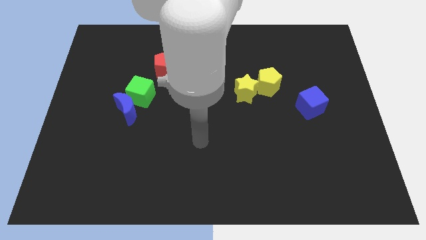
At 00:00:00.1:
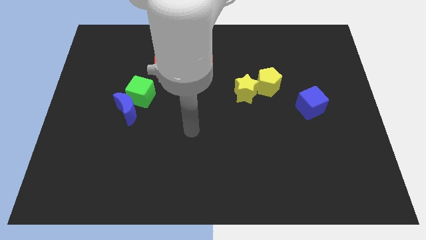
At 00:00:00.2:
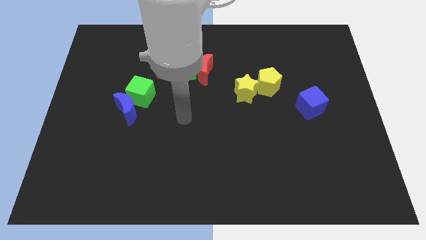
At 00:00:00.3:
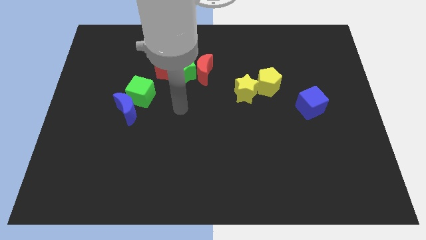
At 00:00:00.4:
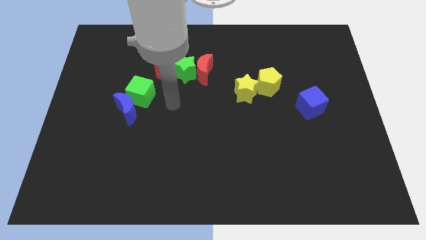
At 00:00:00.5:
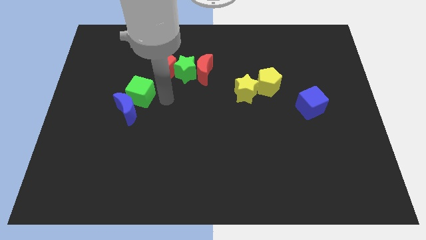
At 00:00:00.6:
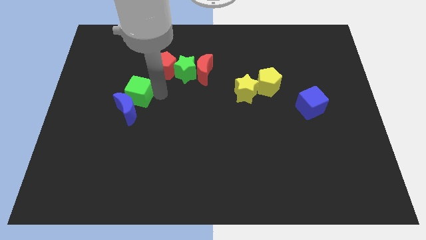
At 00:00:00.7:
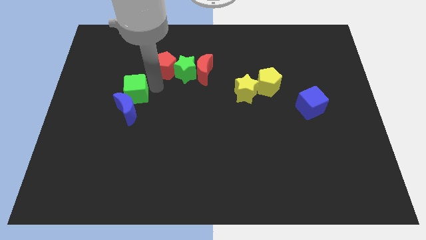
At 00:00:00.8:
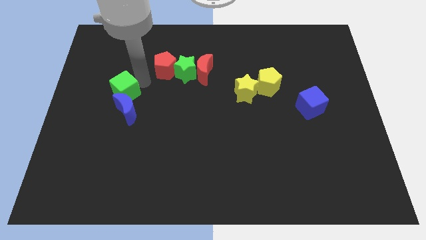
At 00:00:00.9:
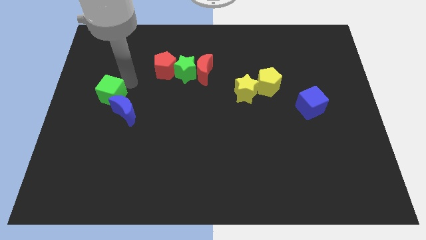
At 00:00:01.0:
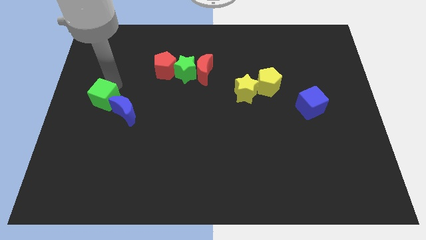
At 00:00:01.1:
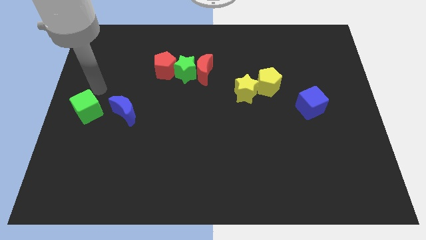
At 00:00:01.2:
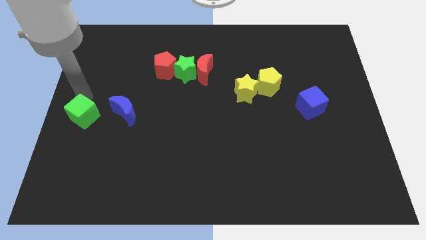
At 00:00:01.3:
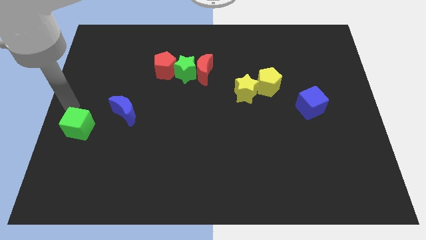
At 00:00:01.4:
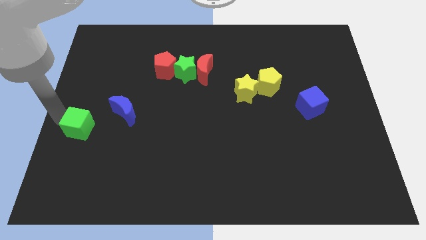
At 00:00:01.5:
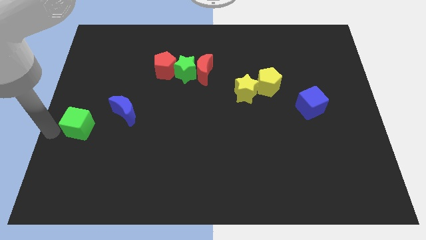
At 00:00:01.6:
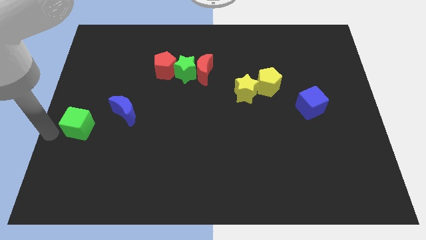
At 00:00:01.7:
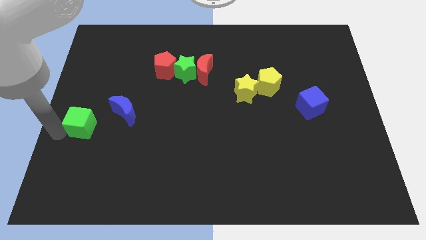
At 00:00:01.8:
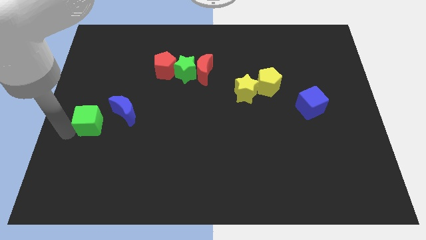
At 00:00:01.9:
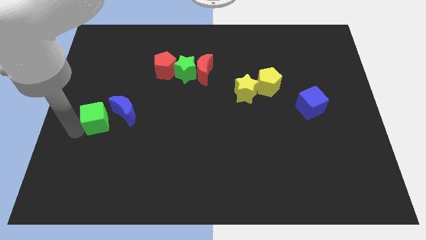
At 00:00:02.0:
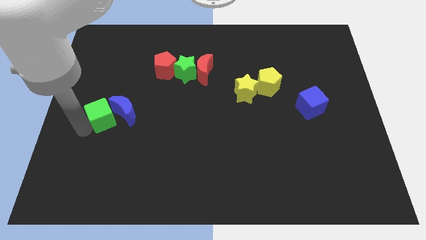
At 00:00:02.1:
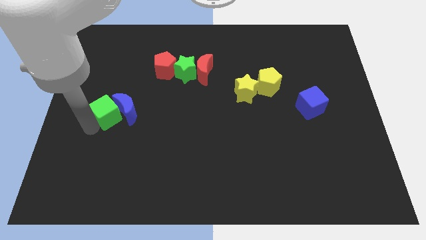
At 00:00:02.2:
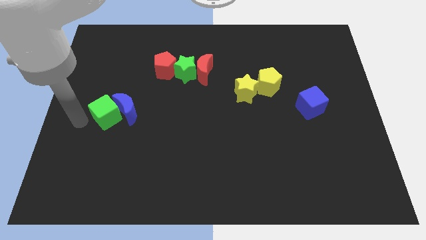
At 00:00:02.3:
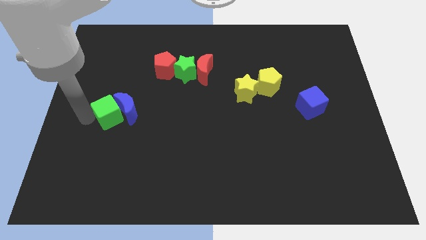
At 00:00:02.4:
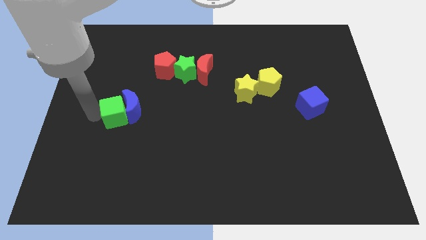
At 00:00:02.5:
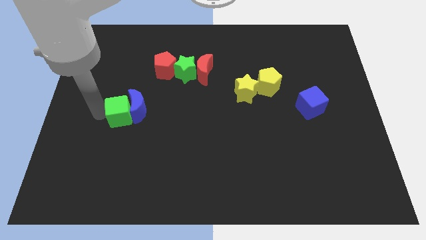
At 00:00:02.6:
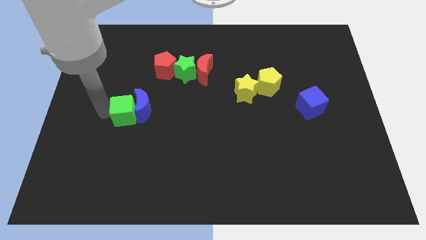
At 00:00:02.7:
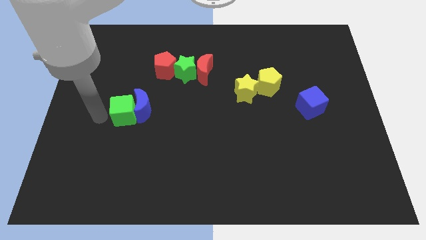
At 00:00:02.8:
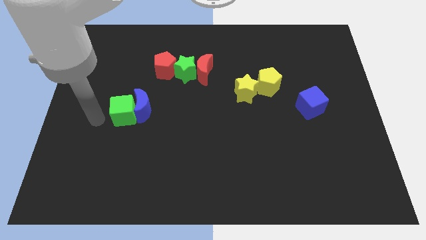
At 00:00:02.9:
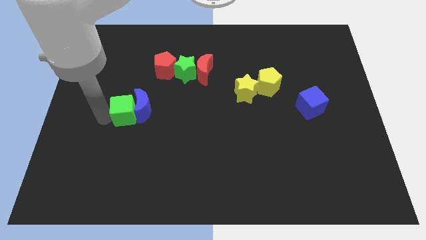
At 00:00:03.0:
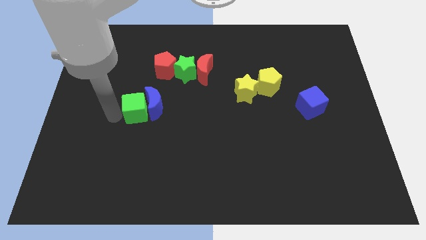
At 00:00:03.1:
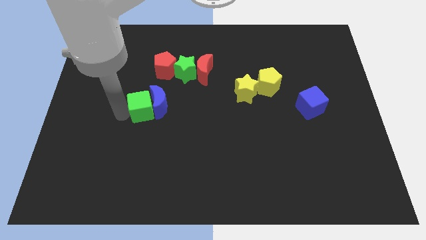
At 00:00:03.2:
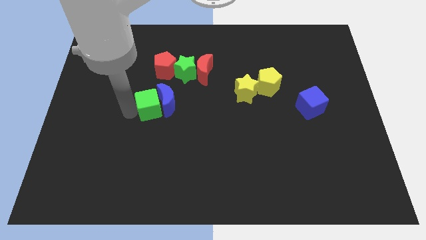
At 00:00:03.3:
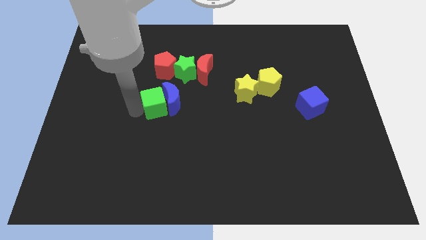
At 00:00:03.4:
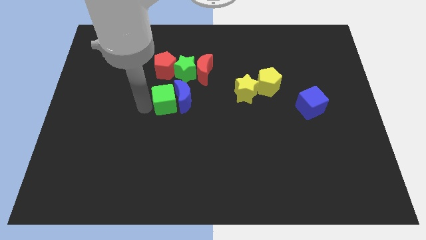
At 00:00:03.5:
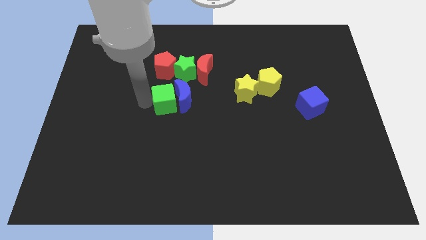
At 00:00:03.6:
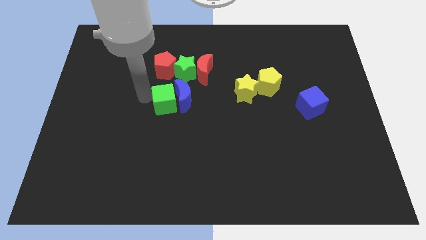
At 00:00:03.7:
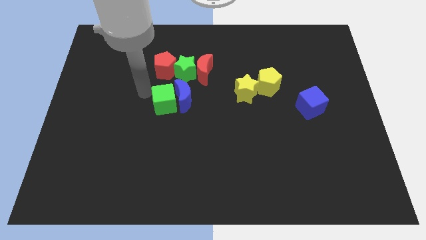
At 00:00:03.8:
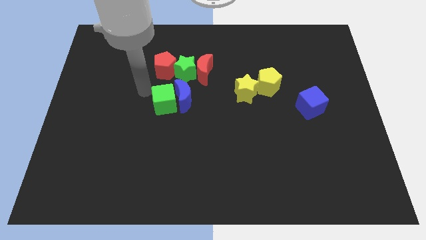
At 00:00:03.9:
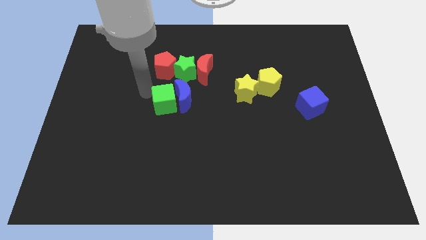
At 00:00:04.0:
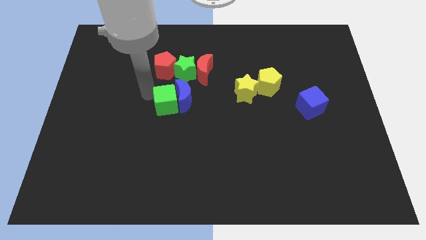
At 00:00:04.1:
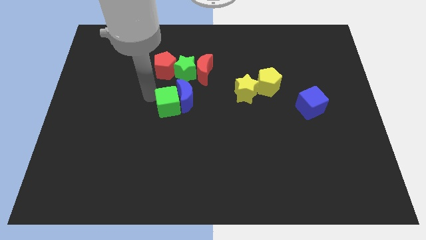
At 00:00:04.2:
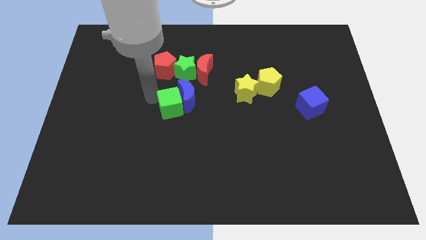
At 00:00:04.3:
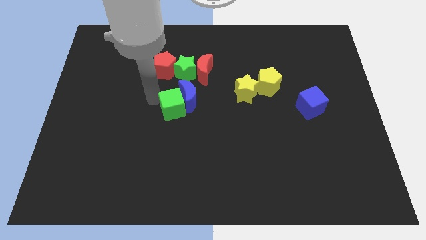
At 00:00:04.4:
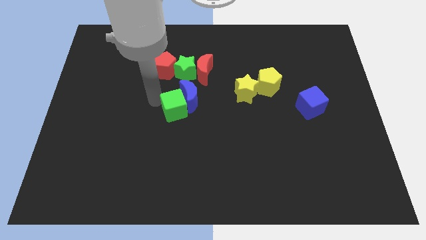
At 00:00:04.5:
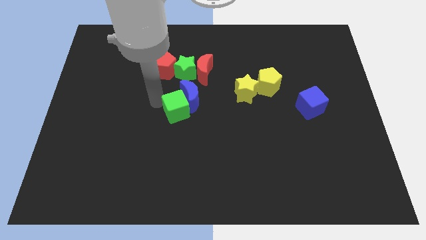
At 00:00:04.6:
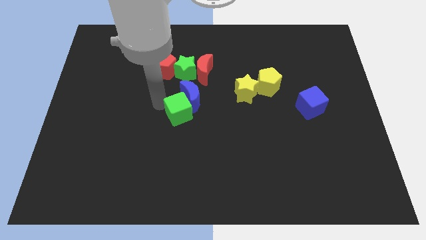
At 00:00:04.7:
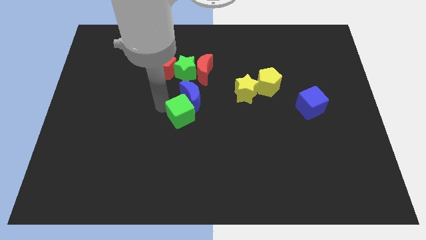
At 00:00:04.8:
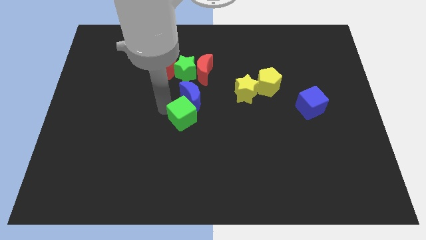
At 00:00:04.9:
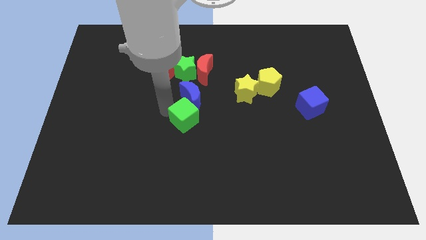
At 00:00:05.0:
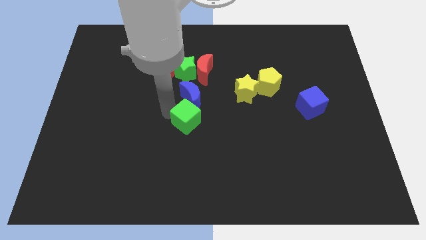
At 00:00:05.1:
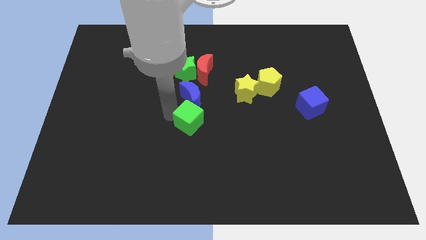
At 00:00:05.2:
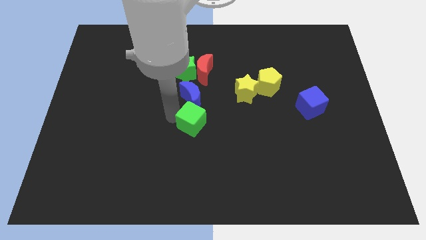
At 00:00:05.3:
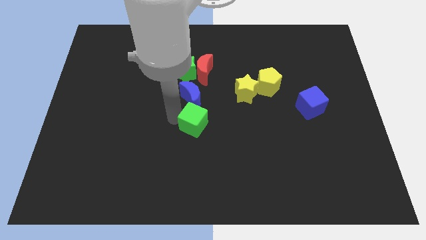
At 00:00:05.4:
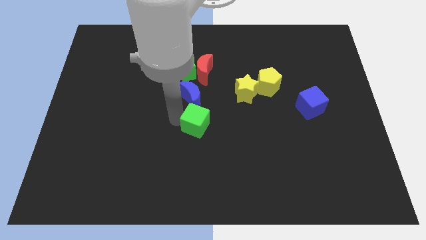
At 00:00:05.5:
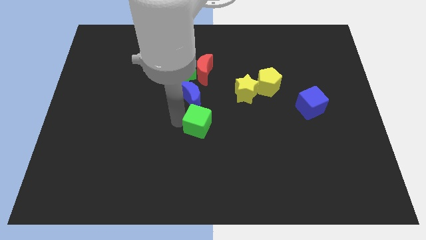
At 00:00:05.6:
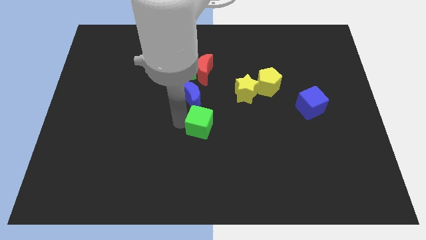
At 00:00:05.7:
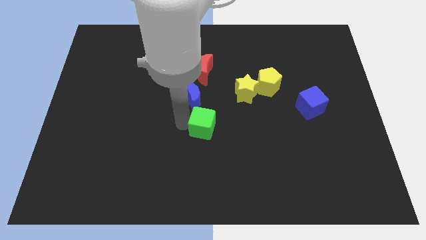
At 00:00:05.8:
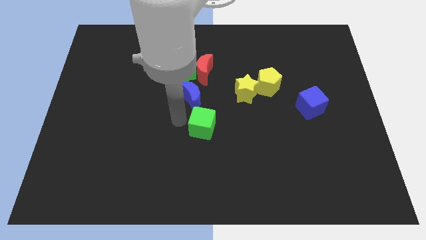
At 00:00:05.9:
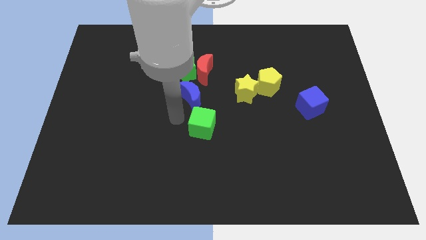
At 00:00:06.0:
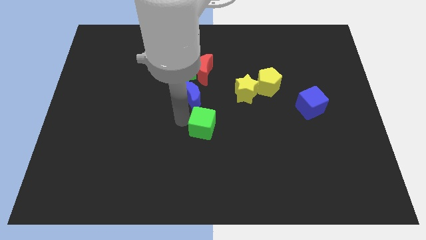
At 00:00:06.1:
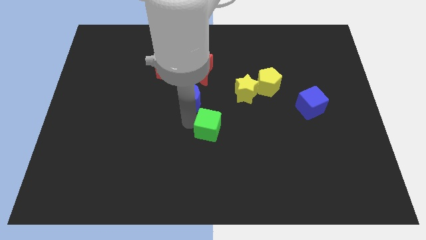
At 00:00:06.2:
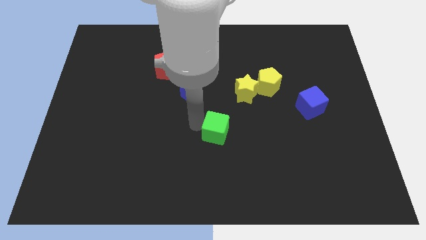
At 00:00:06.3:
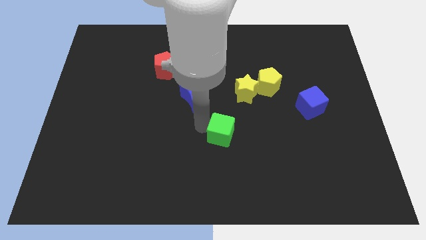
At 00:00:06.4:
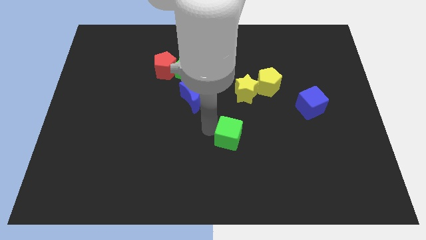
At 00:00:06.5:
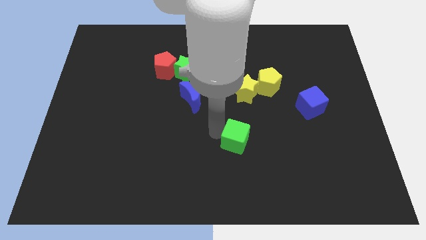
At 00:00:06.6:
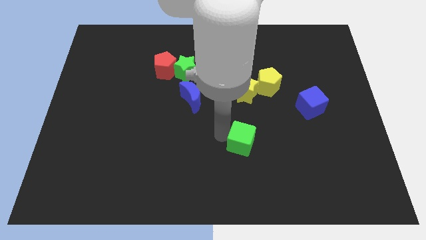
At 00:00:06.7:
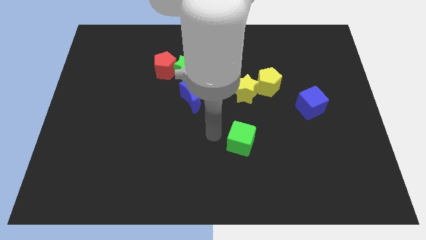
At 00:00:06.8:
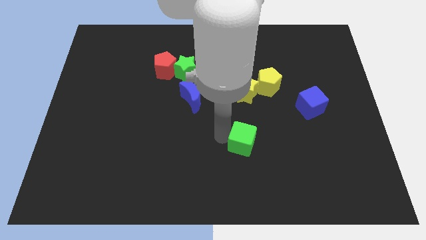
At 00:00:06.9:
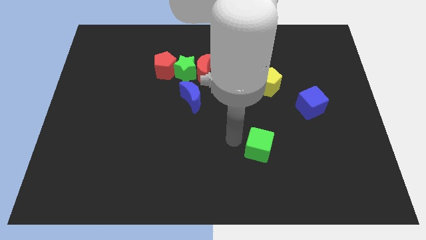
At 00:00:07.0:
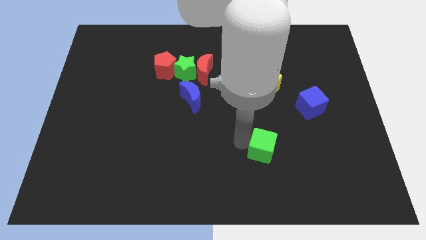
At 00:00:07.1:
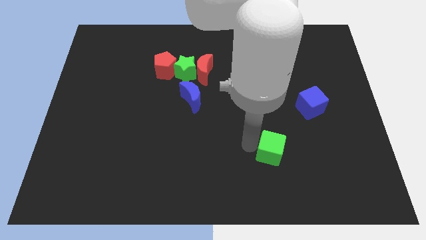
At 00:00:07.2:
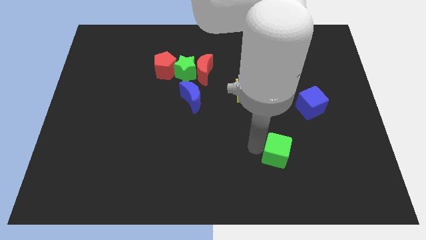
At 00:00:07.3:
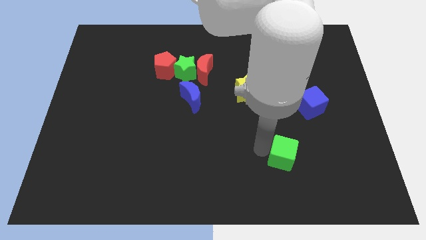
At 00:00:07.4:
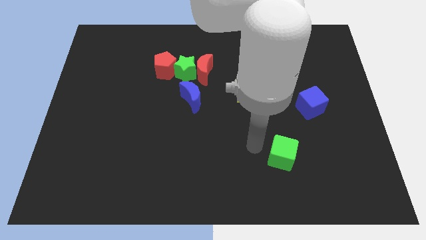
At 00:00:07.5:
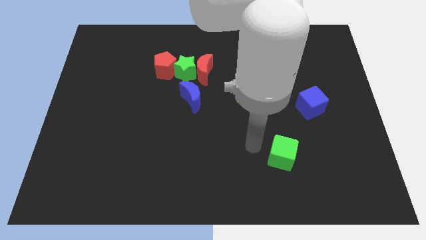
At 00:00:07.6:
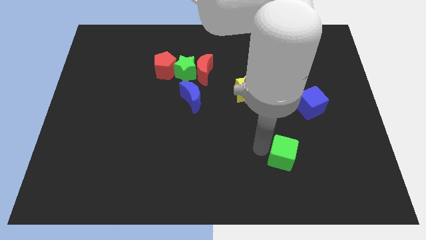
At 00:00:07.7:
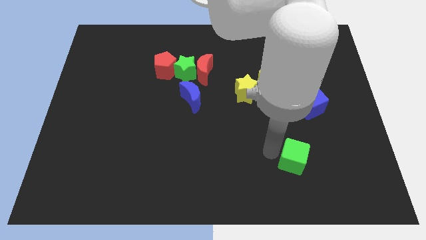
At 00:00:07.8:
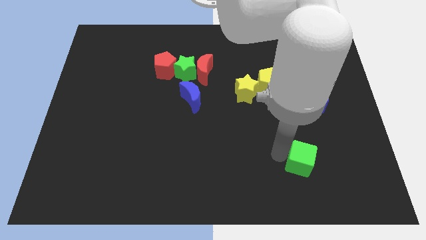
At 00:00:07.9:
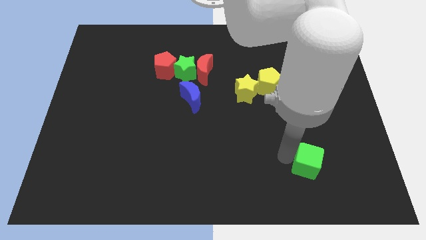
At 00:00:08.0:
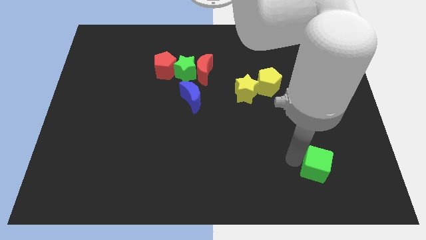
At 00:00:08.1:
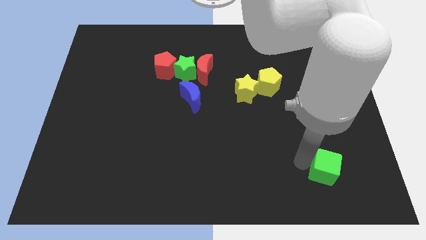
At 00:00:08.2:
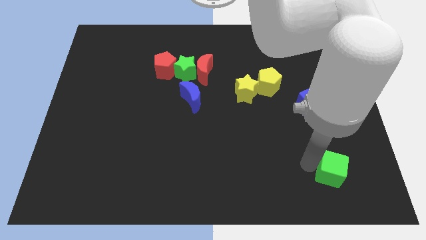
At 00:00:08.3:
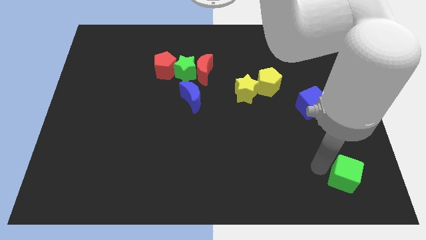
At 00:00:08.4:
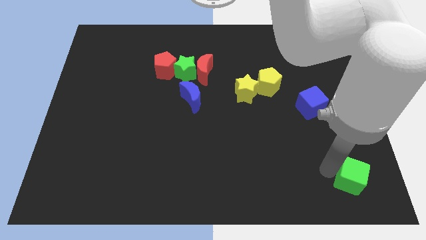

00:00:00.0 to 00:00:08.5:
put the green cube to the bottom right
